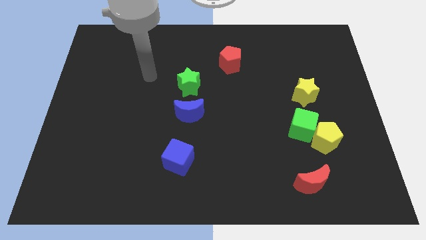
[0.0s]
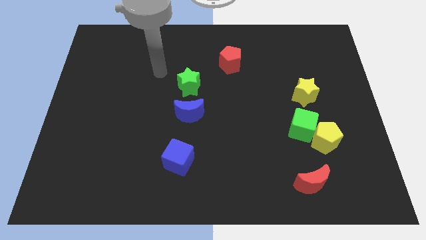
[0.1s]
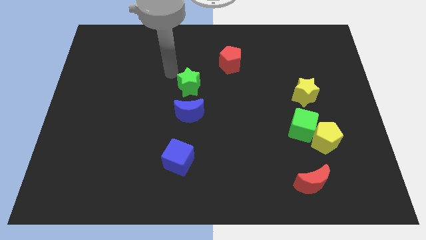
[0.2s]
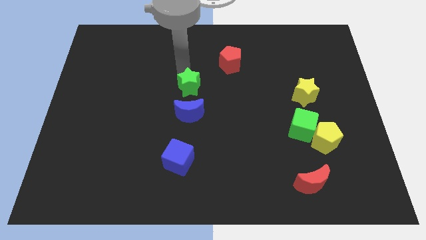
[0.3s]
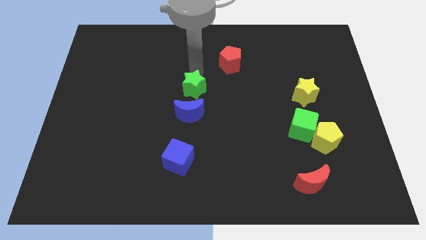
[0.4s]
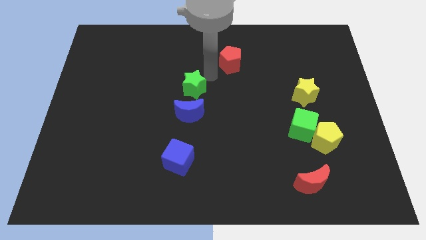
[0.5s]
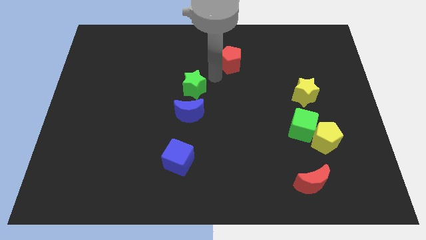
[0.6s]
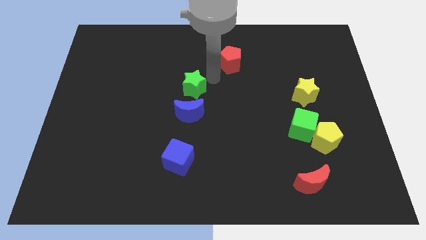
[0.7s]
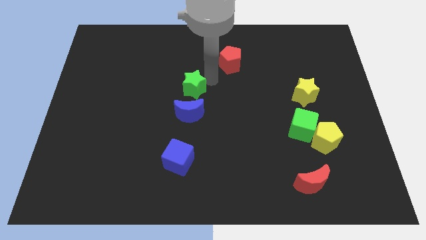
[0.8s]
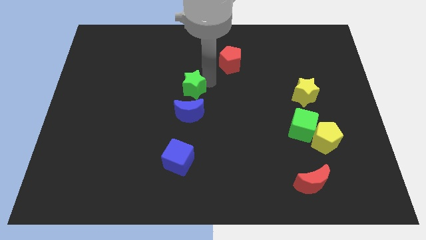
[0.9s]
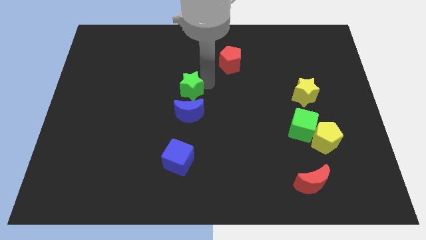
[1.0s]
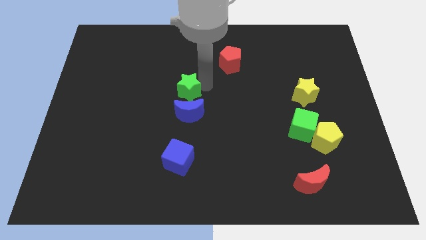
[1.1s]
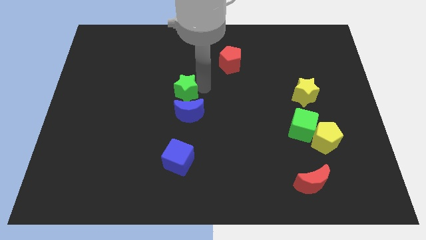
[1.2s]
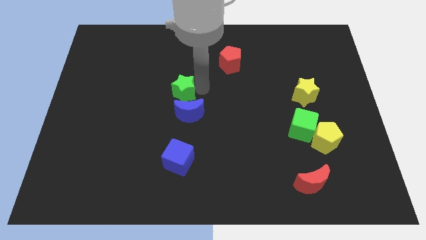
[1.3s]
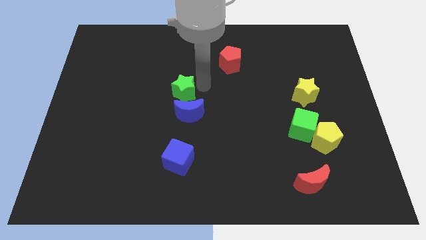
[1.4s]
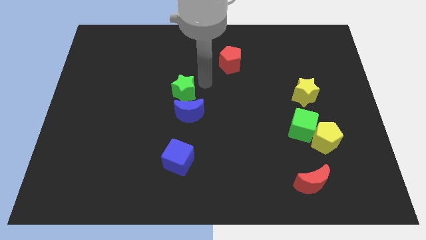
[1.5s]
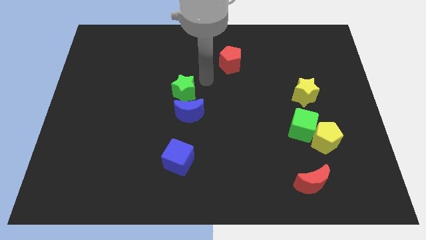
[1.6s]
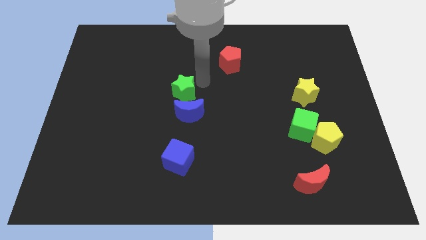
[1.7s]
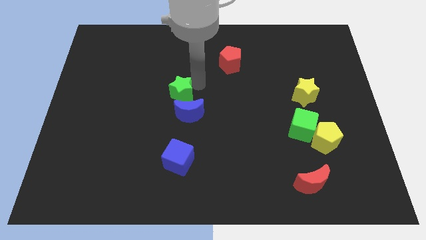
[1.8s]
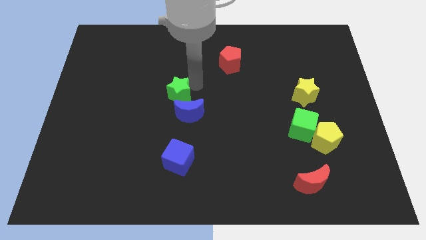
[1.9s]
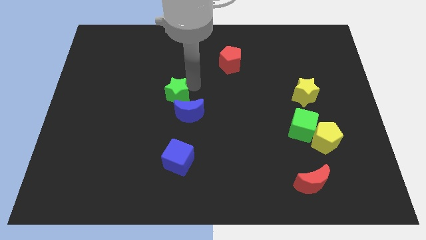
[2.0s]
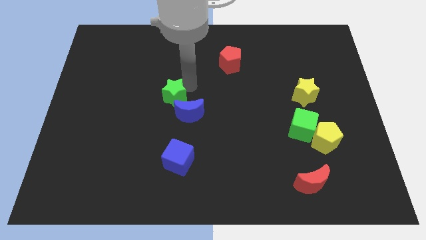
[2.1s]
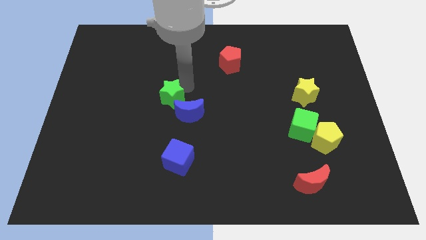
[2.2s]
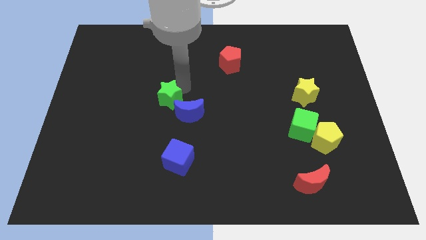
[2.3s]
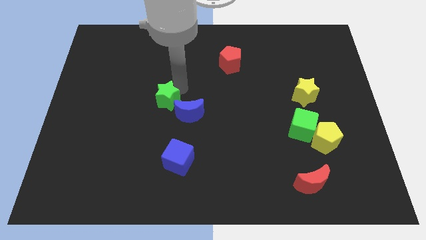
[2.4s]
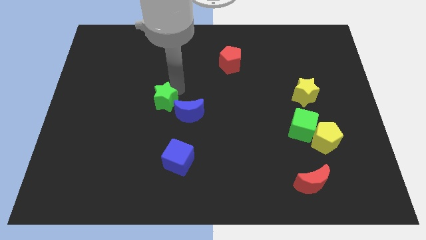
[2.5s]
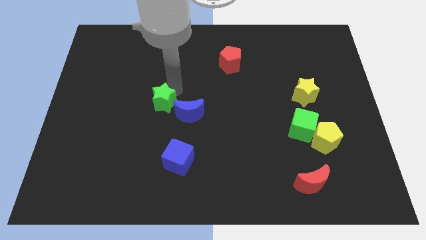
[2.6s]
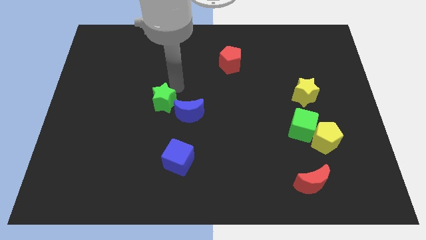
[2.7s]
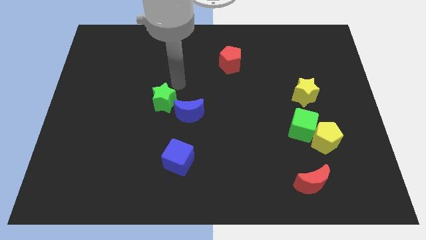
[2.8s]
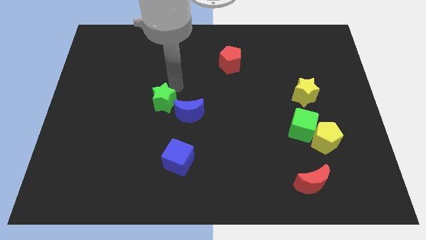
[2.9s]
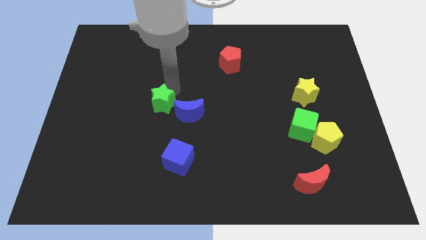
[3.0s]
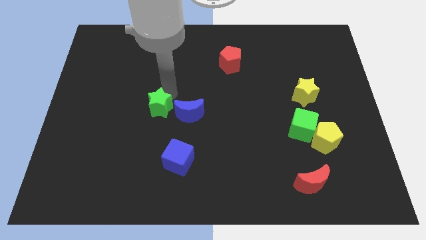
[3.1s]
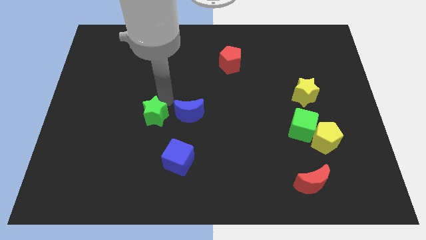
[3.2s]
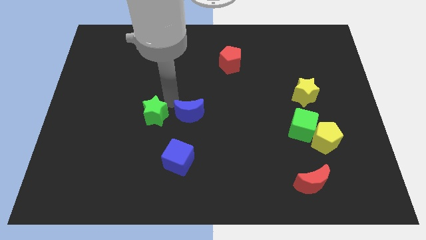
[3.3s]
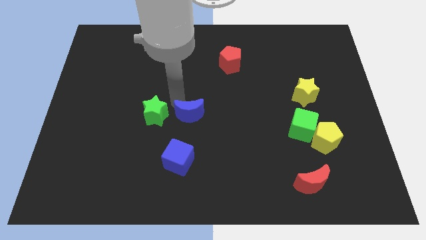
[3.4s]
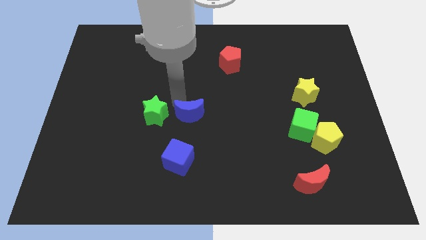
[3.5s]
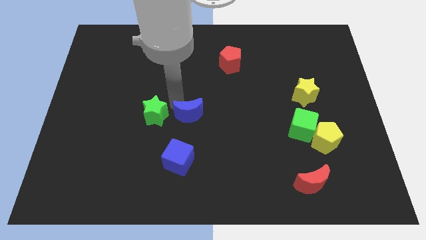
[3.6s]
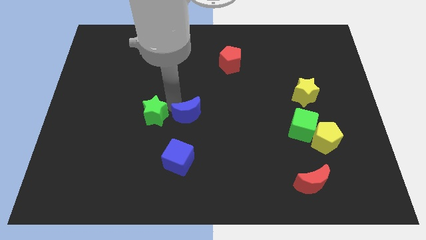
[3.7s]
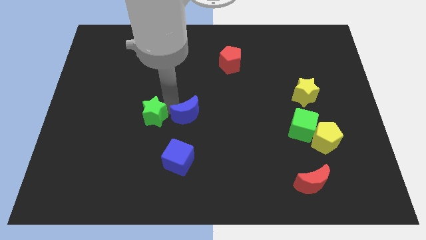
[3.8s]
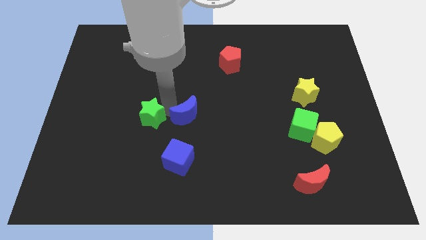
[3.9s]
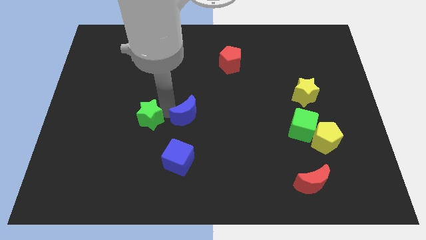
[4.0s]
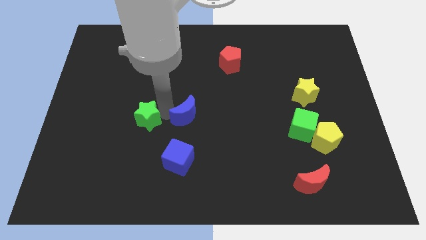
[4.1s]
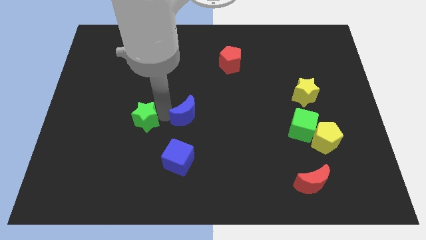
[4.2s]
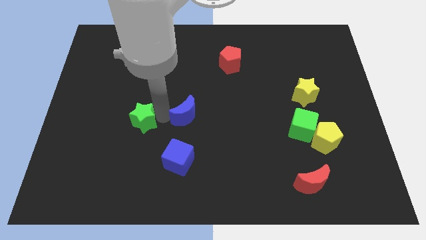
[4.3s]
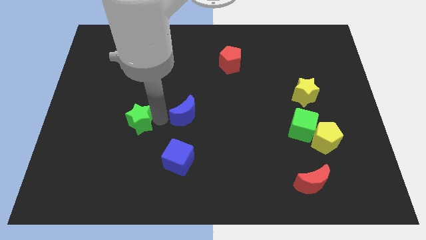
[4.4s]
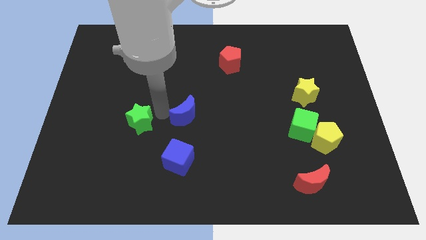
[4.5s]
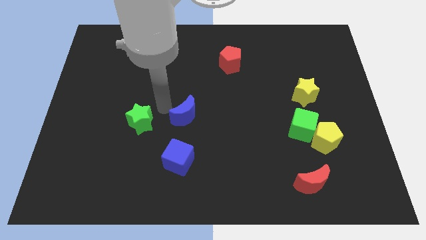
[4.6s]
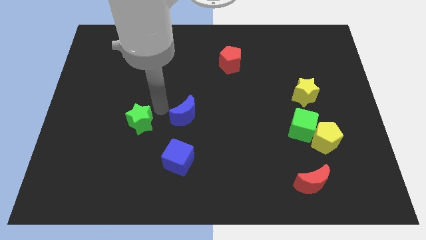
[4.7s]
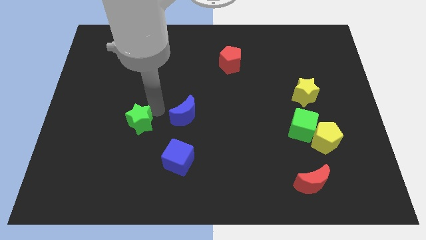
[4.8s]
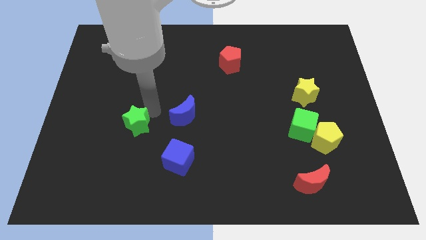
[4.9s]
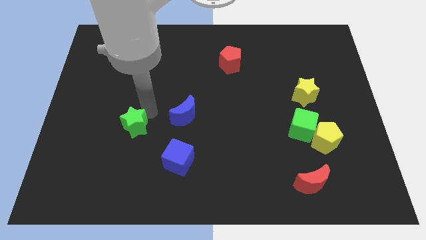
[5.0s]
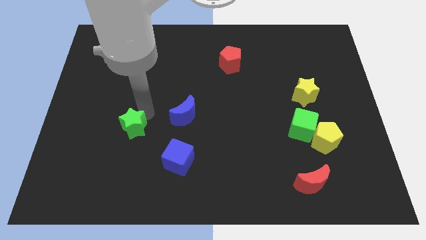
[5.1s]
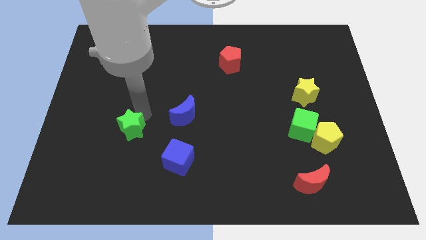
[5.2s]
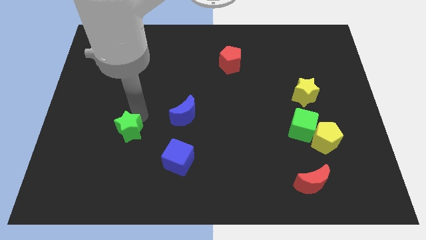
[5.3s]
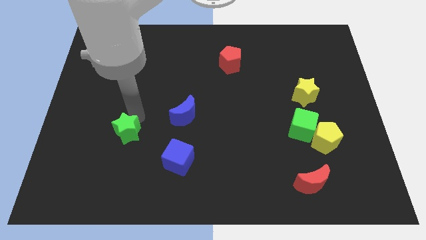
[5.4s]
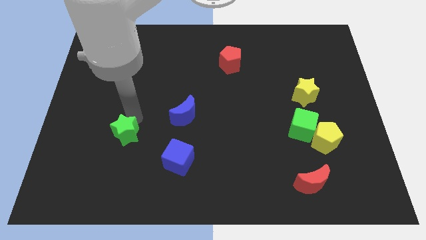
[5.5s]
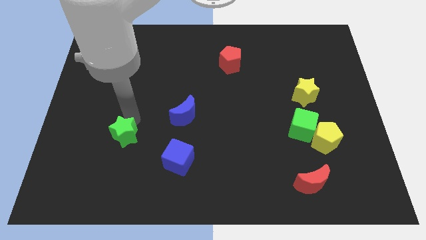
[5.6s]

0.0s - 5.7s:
push the green star downwards and then to the left

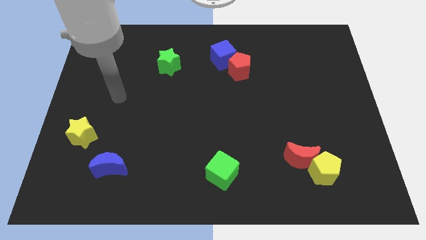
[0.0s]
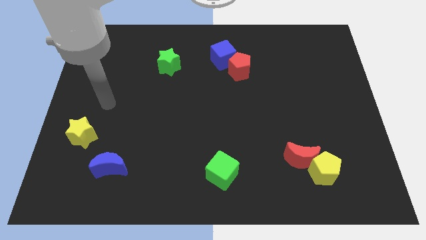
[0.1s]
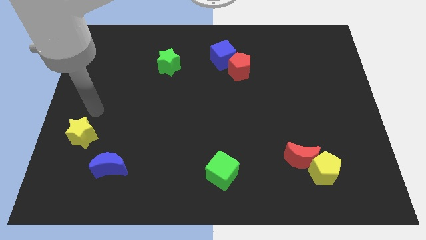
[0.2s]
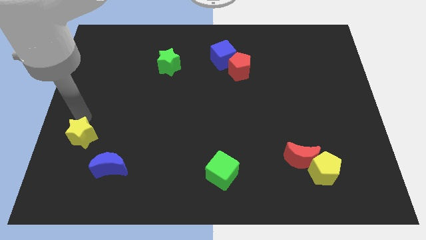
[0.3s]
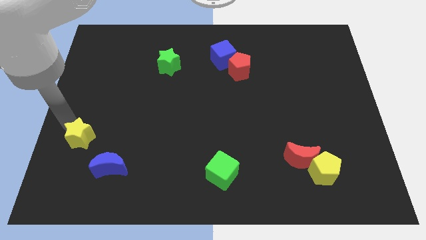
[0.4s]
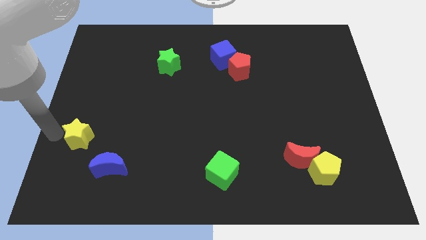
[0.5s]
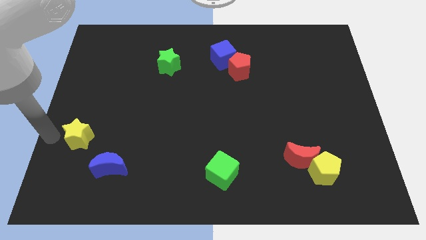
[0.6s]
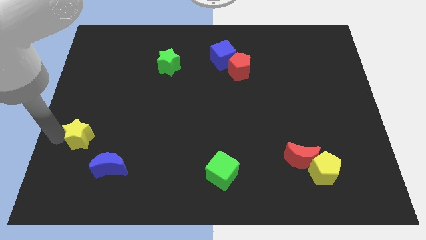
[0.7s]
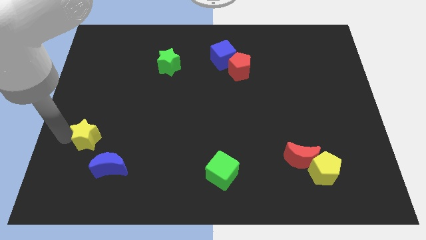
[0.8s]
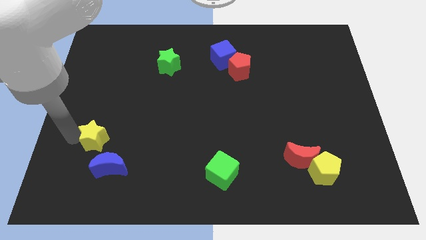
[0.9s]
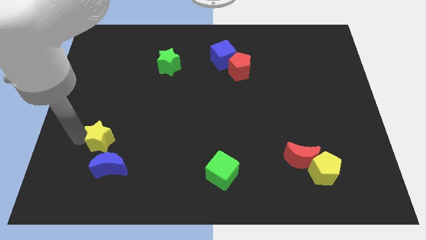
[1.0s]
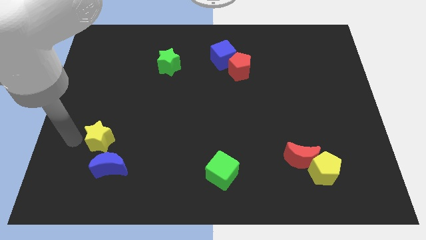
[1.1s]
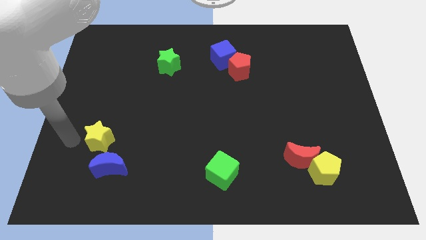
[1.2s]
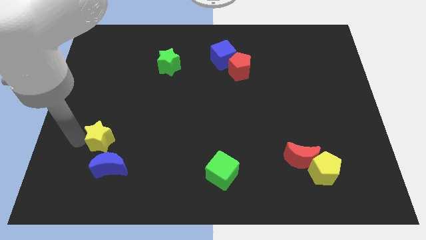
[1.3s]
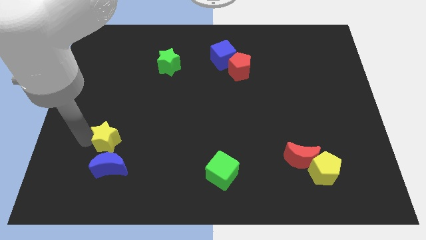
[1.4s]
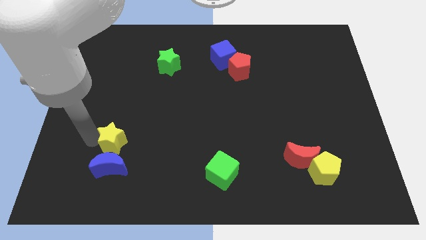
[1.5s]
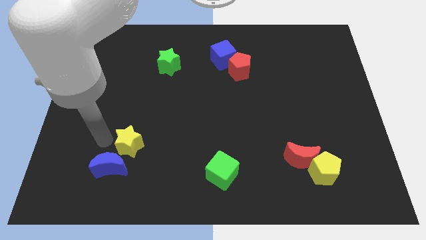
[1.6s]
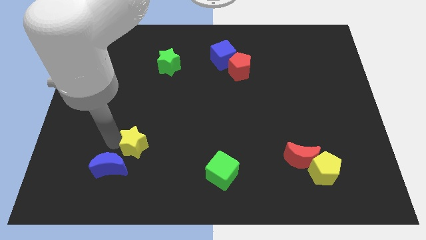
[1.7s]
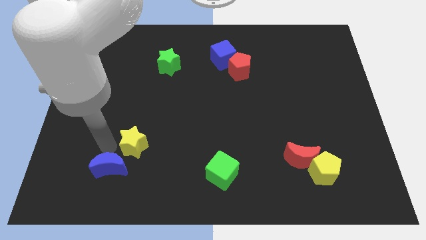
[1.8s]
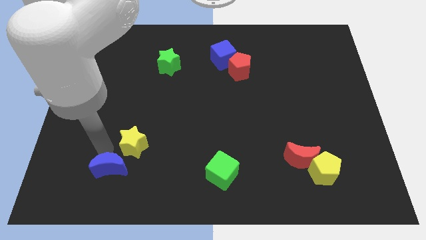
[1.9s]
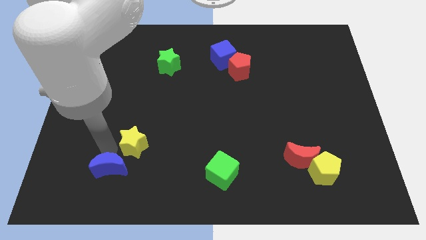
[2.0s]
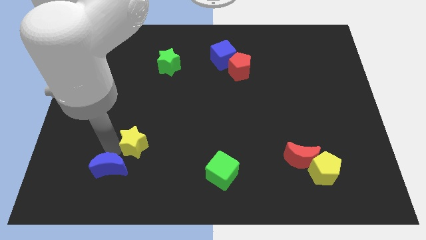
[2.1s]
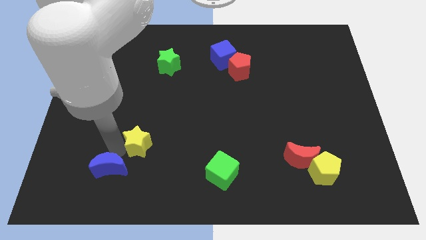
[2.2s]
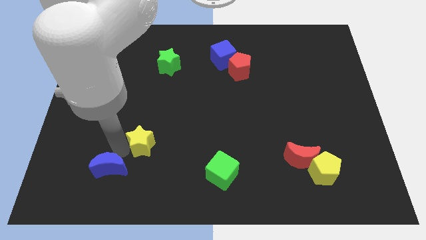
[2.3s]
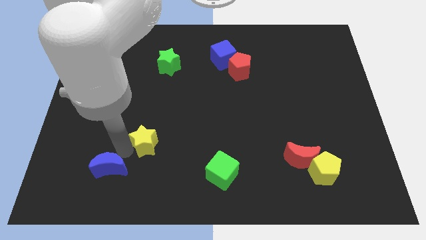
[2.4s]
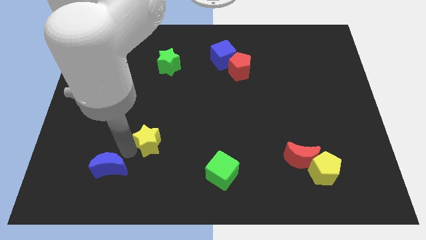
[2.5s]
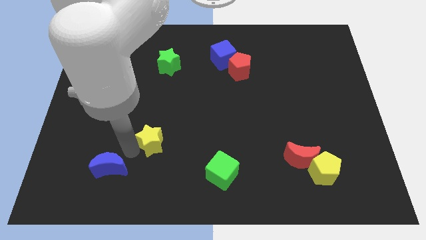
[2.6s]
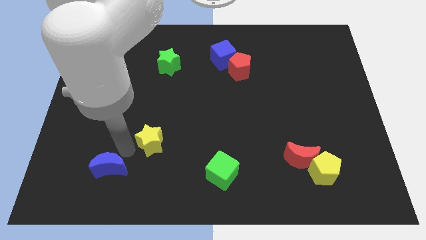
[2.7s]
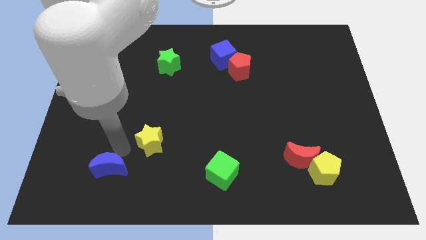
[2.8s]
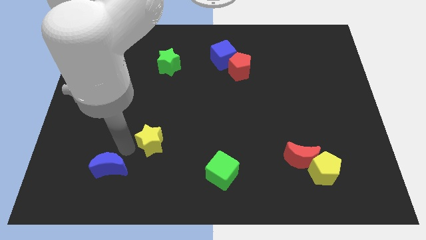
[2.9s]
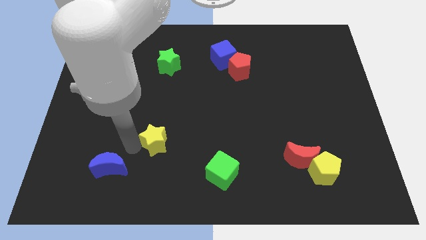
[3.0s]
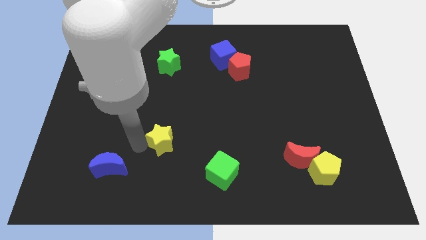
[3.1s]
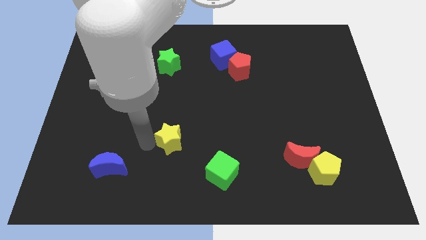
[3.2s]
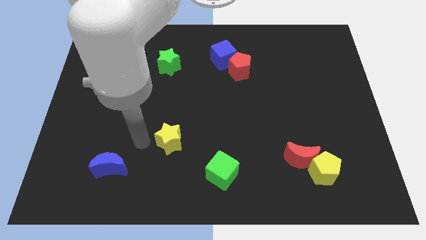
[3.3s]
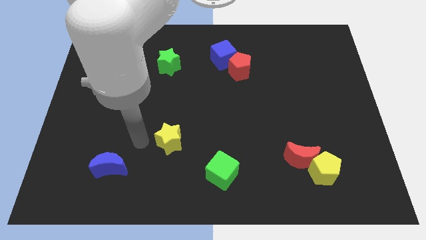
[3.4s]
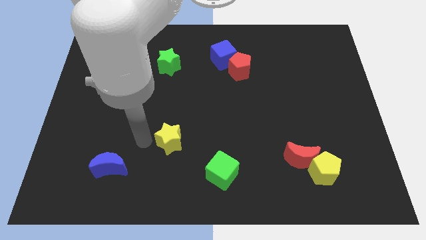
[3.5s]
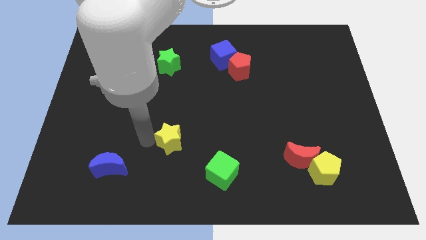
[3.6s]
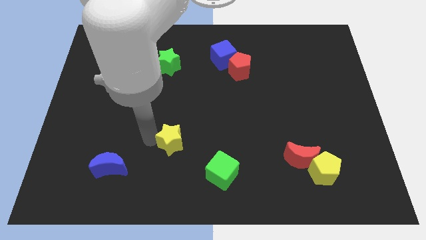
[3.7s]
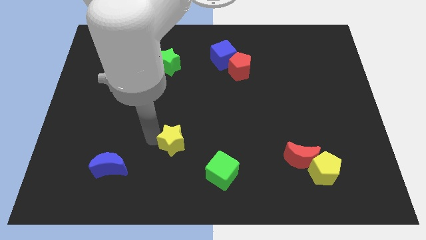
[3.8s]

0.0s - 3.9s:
move the yellow star to the right
